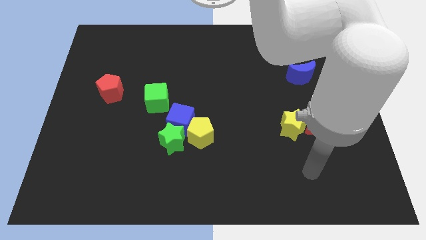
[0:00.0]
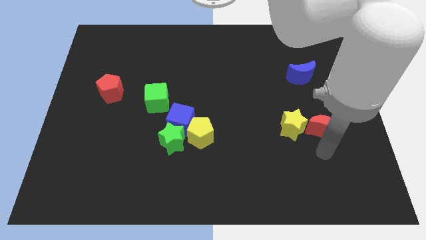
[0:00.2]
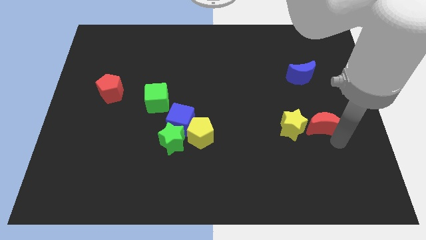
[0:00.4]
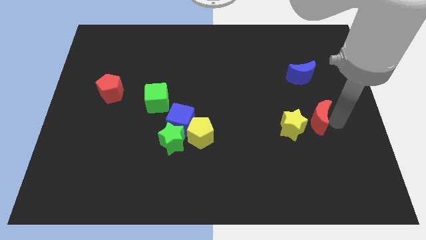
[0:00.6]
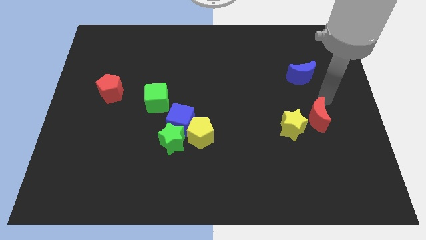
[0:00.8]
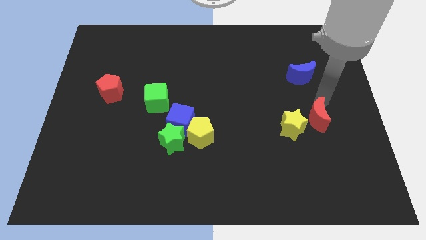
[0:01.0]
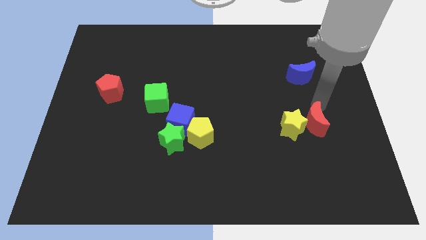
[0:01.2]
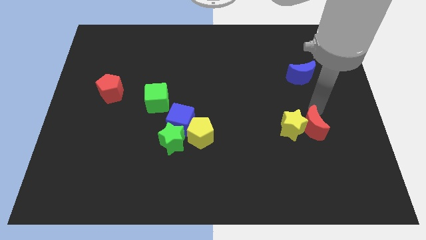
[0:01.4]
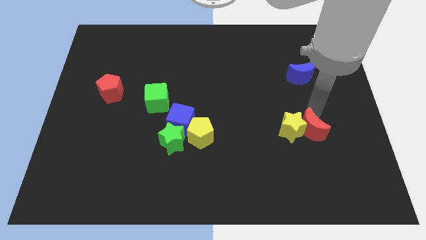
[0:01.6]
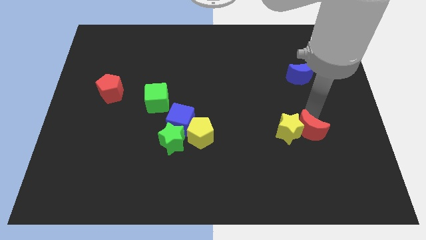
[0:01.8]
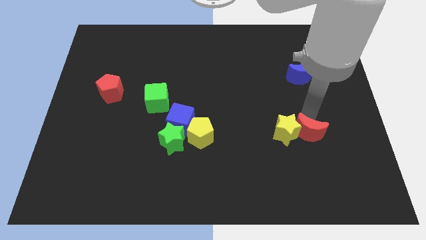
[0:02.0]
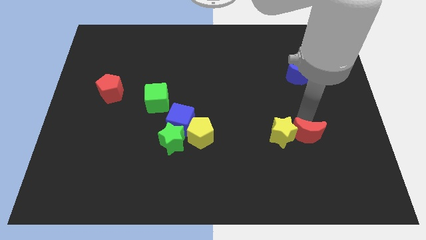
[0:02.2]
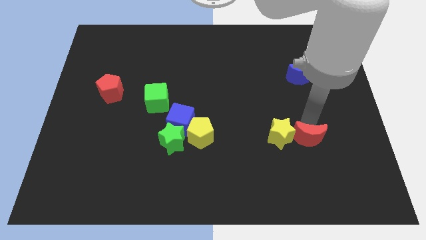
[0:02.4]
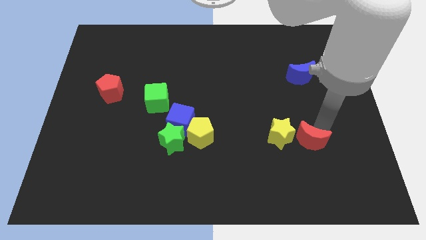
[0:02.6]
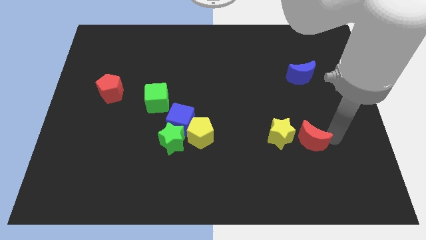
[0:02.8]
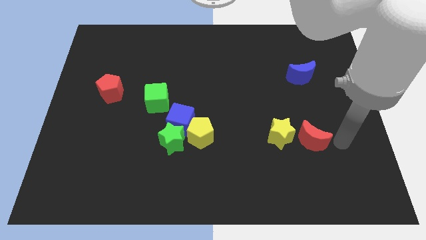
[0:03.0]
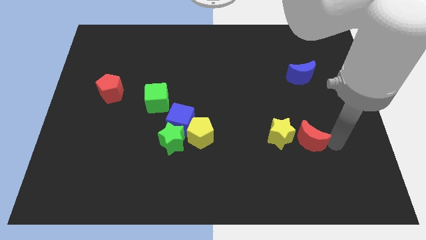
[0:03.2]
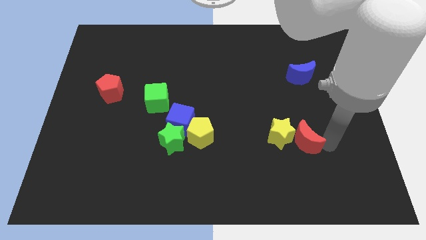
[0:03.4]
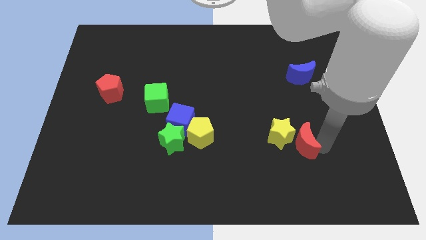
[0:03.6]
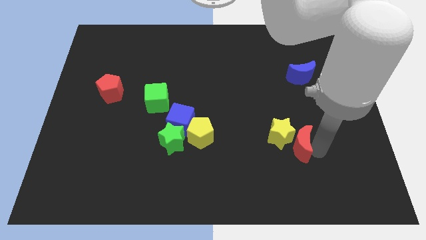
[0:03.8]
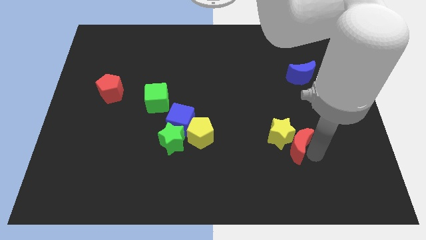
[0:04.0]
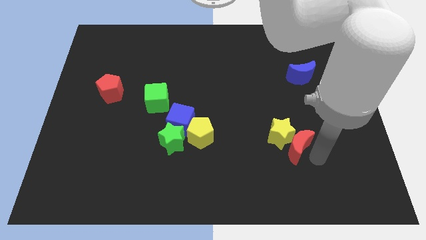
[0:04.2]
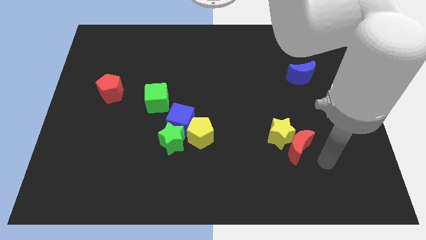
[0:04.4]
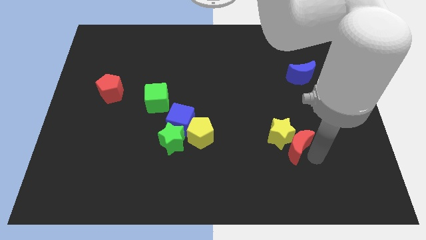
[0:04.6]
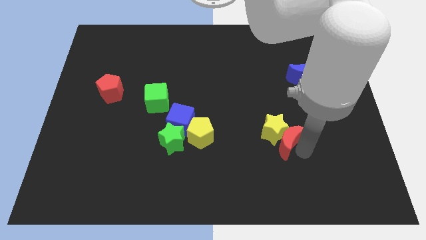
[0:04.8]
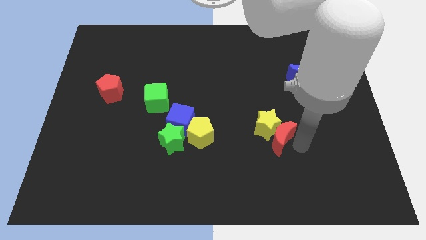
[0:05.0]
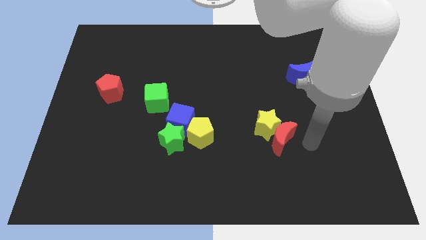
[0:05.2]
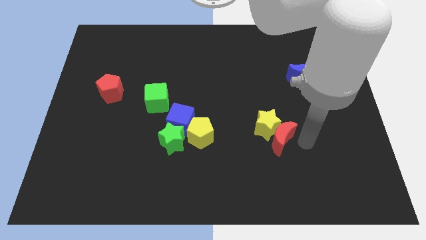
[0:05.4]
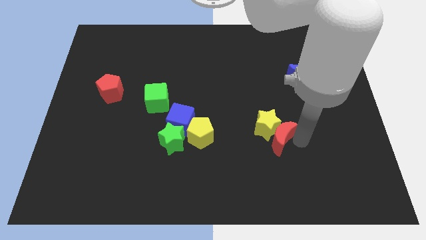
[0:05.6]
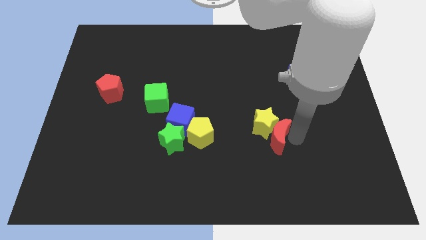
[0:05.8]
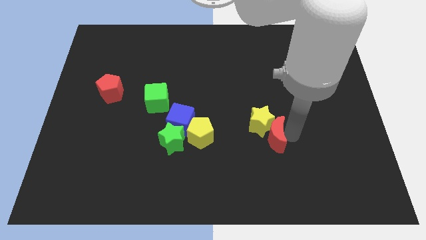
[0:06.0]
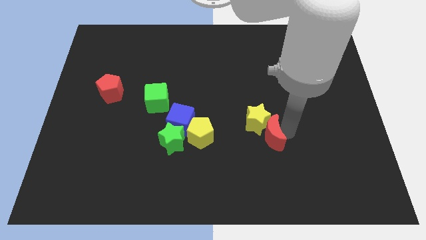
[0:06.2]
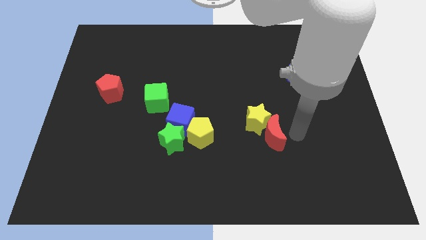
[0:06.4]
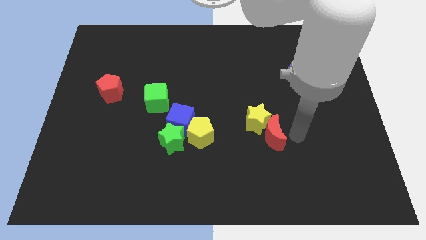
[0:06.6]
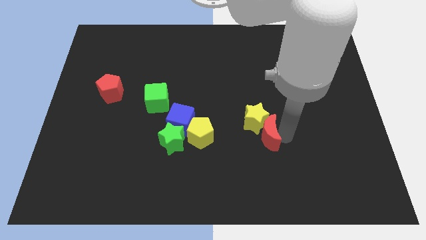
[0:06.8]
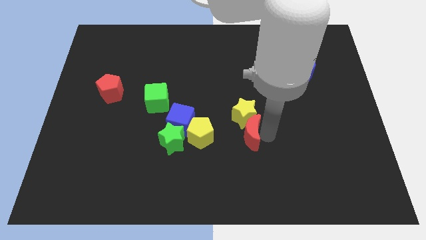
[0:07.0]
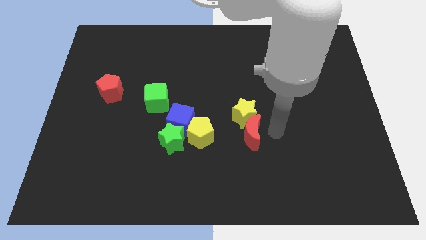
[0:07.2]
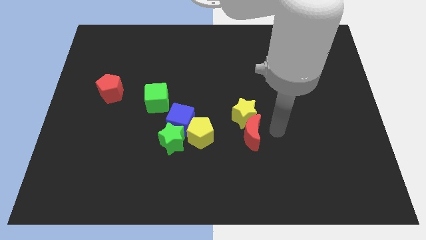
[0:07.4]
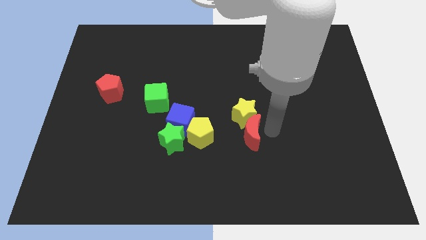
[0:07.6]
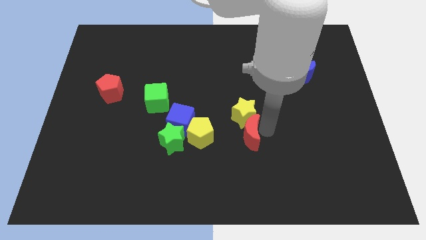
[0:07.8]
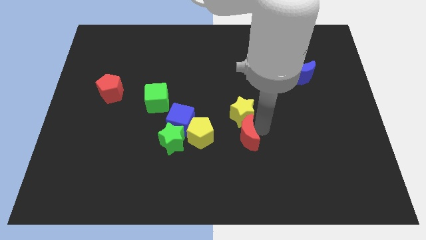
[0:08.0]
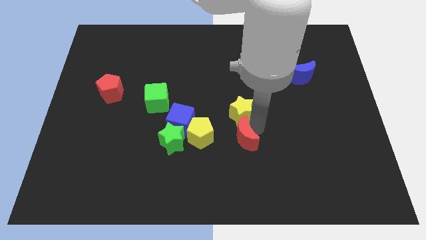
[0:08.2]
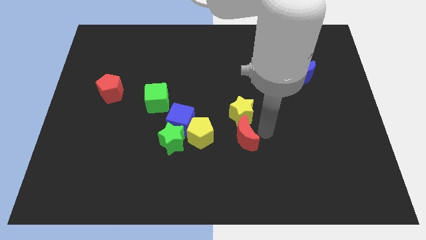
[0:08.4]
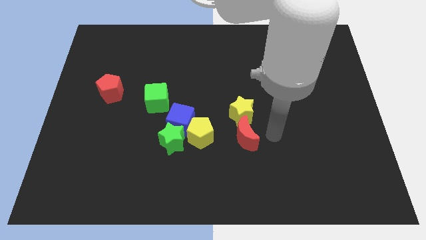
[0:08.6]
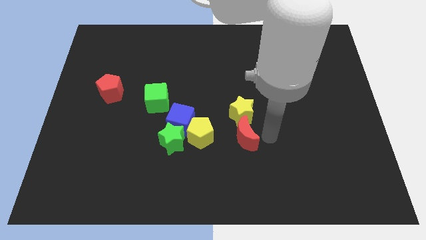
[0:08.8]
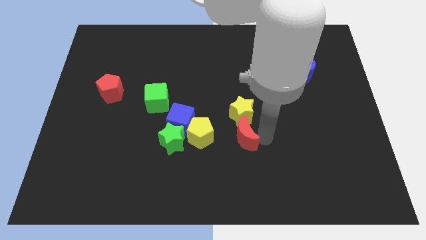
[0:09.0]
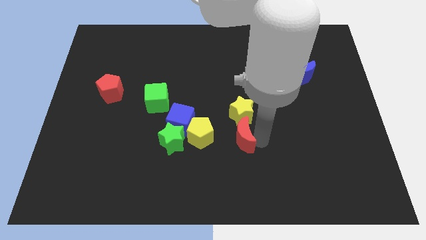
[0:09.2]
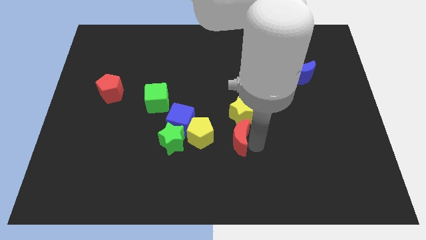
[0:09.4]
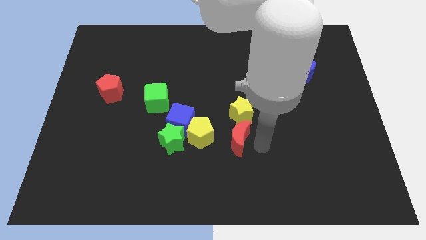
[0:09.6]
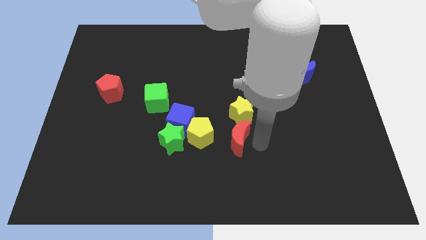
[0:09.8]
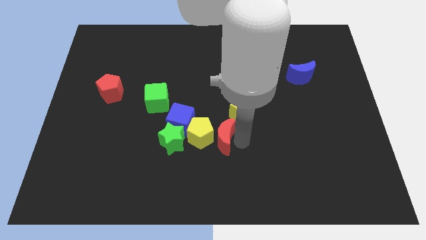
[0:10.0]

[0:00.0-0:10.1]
slide the red moon close to the yellow pentagon

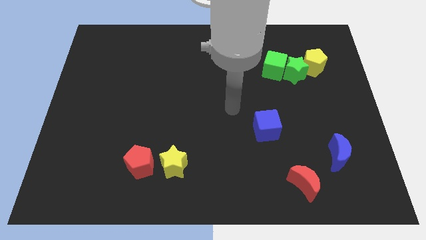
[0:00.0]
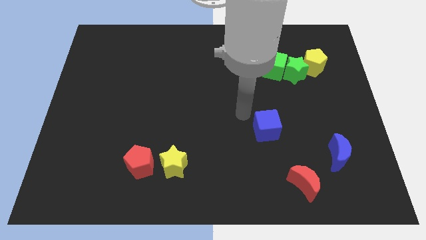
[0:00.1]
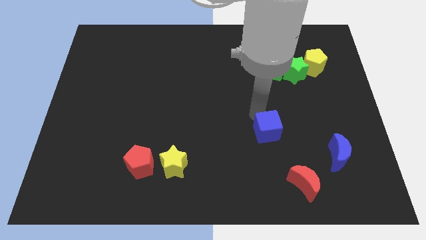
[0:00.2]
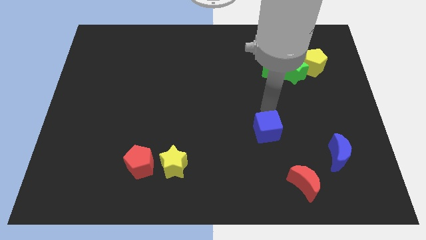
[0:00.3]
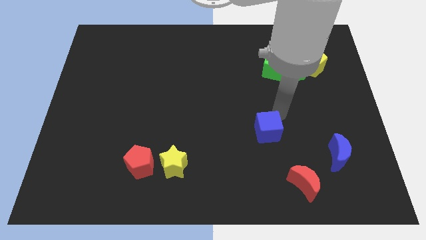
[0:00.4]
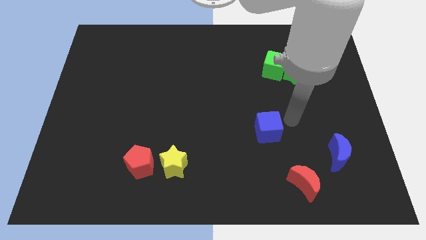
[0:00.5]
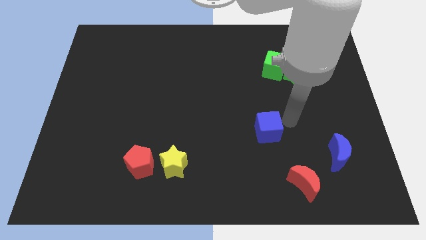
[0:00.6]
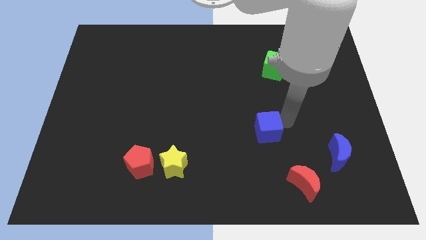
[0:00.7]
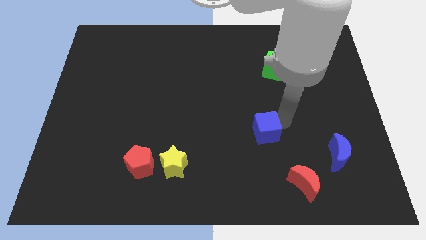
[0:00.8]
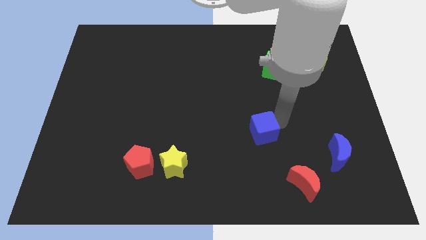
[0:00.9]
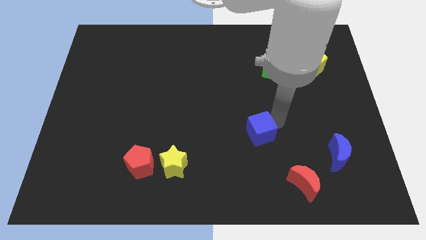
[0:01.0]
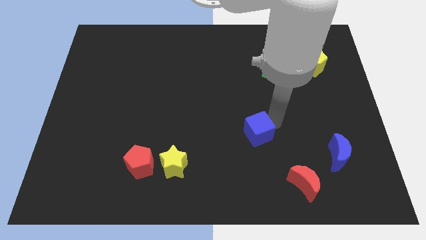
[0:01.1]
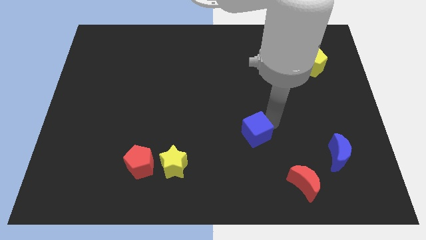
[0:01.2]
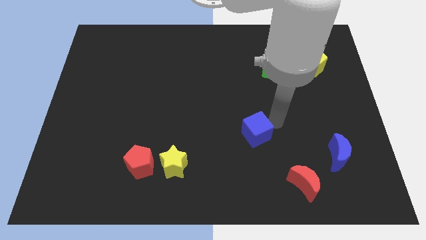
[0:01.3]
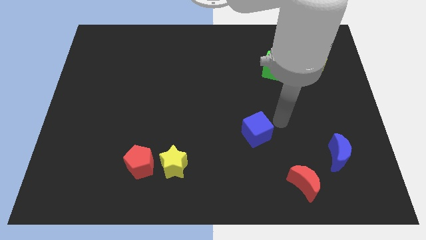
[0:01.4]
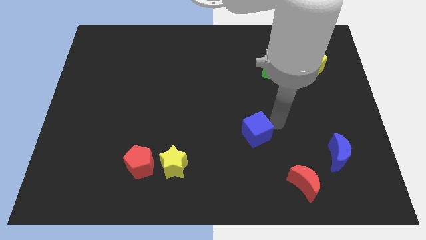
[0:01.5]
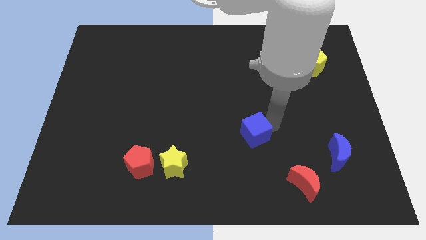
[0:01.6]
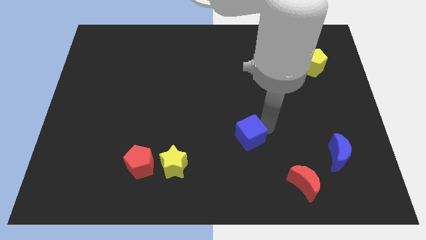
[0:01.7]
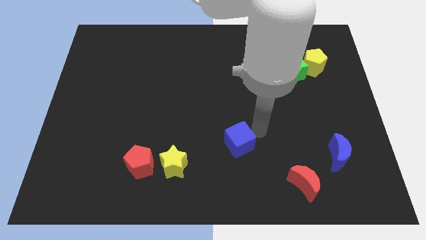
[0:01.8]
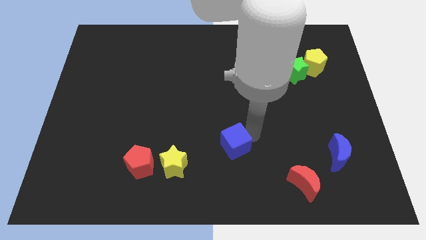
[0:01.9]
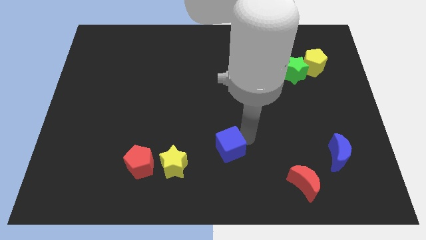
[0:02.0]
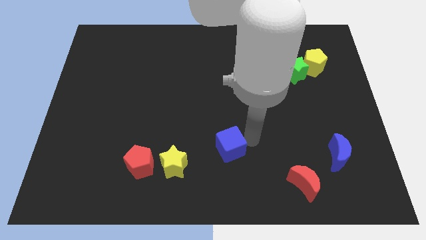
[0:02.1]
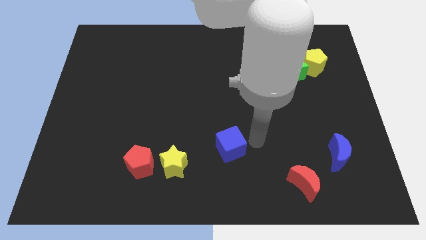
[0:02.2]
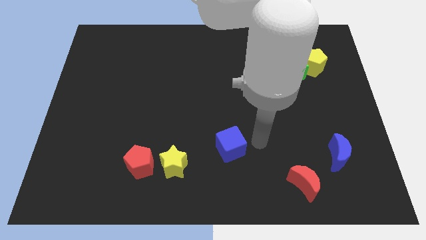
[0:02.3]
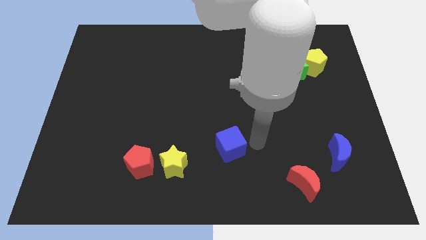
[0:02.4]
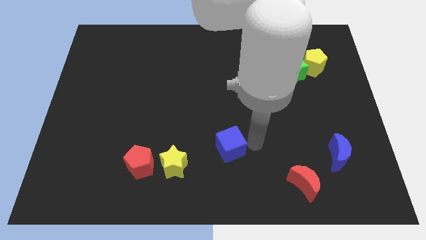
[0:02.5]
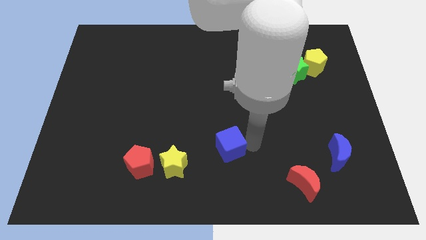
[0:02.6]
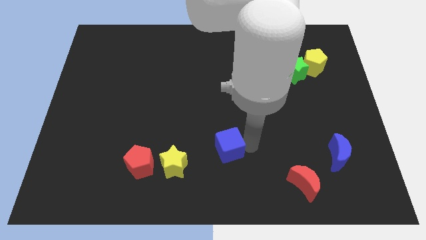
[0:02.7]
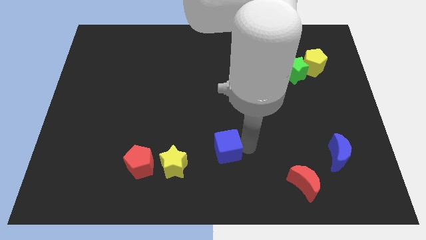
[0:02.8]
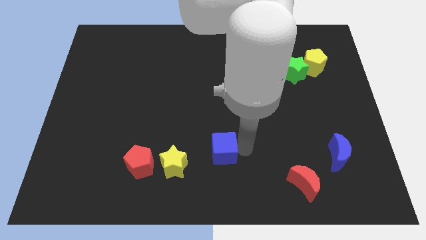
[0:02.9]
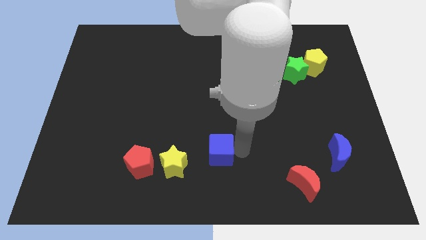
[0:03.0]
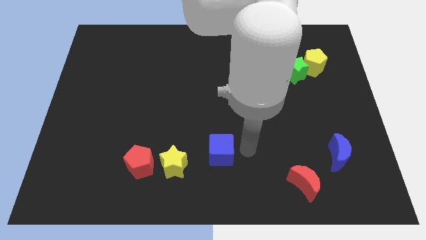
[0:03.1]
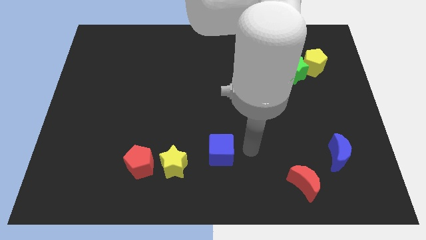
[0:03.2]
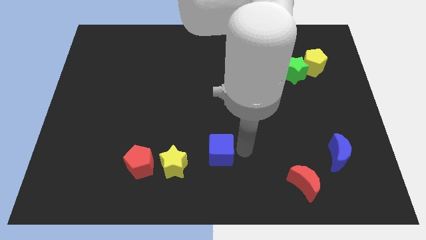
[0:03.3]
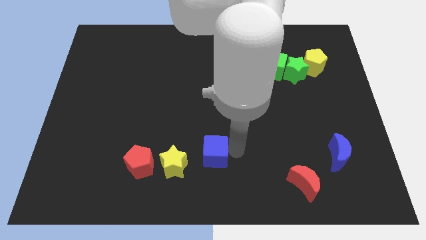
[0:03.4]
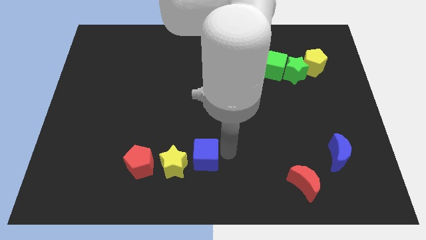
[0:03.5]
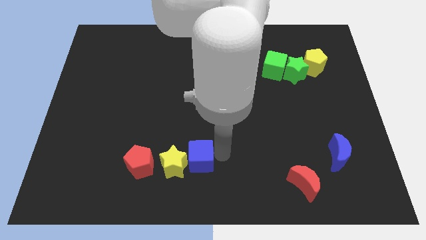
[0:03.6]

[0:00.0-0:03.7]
put the blue cube next to the yellow star
